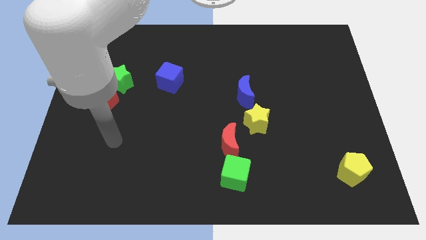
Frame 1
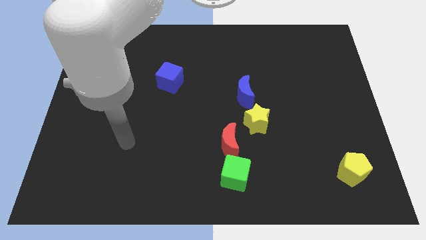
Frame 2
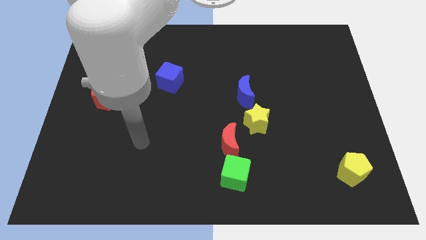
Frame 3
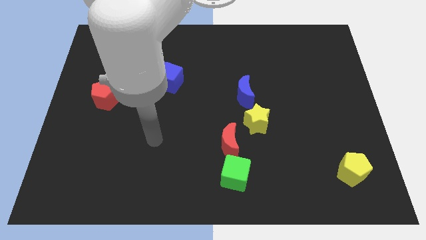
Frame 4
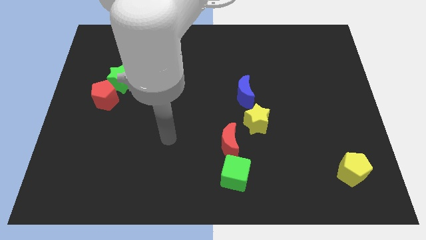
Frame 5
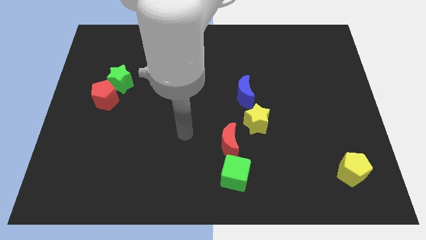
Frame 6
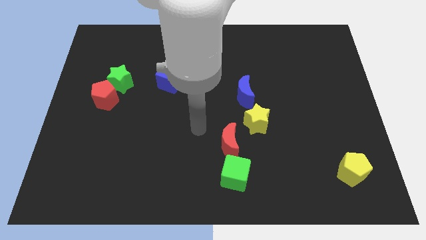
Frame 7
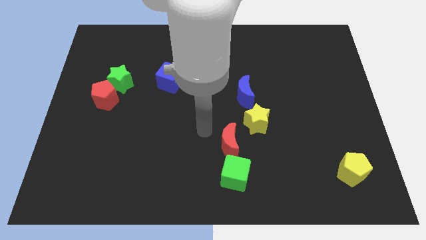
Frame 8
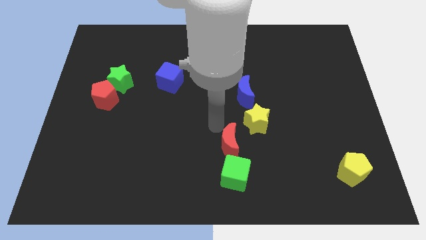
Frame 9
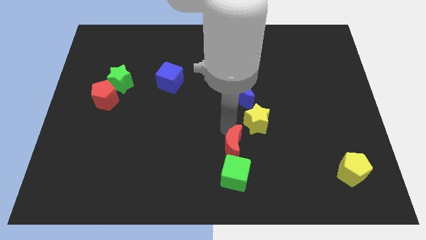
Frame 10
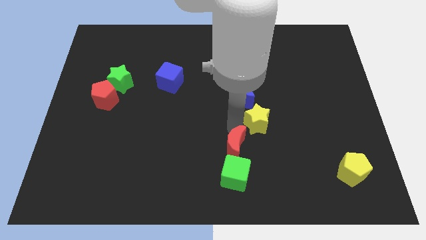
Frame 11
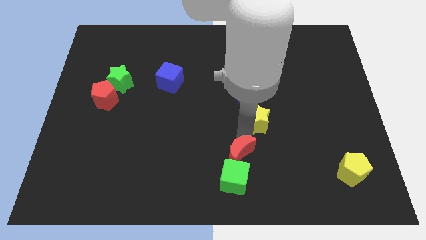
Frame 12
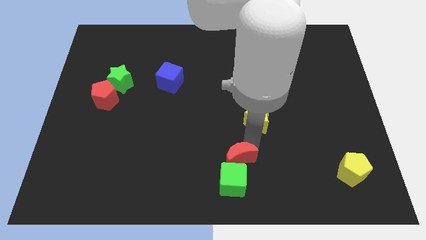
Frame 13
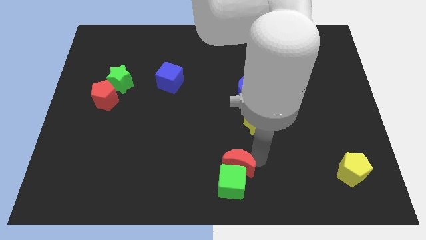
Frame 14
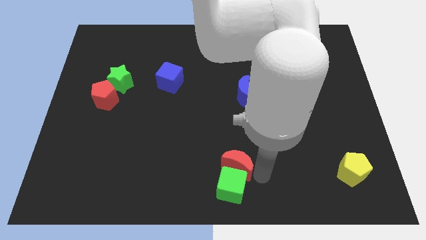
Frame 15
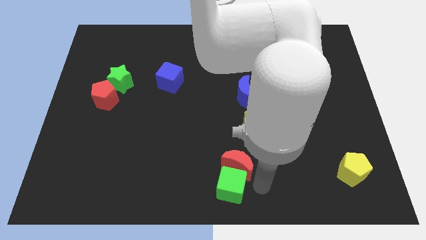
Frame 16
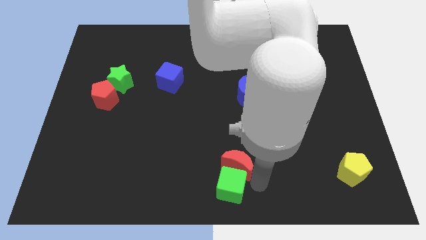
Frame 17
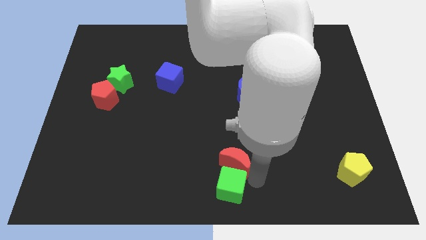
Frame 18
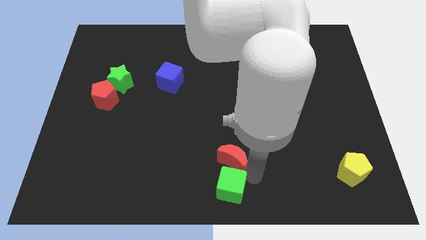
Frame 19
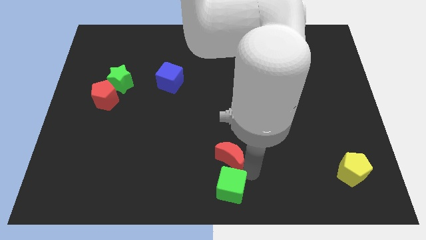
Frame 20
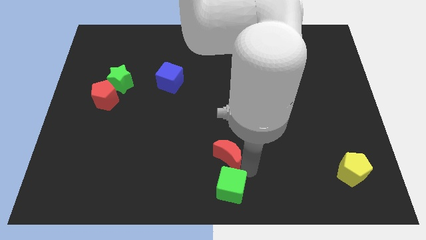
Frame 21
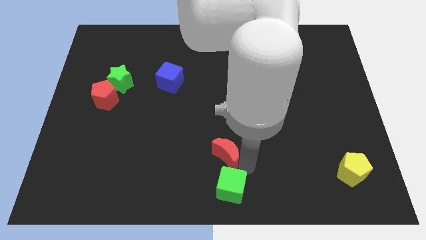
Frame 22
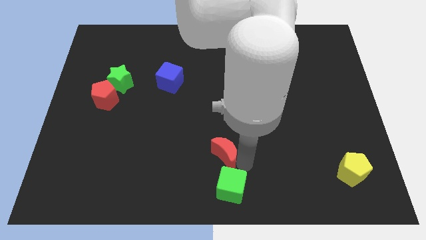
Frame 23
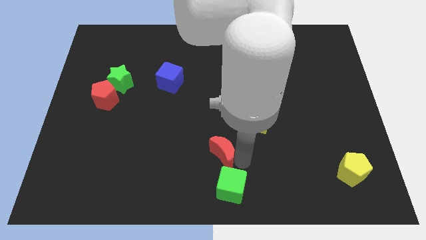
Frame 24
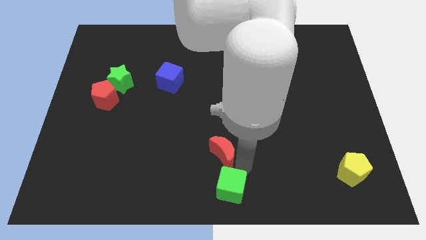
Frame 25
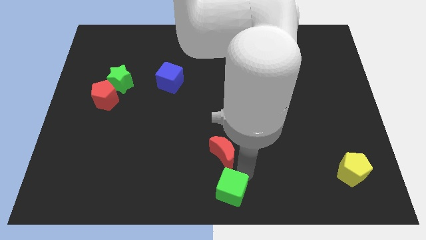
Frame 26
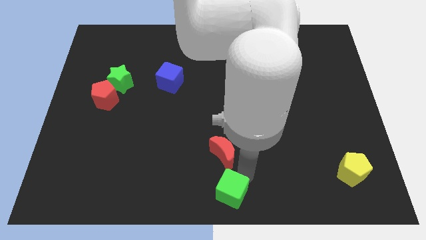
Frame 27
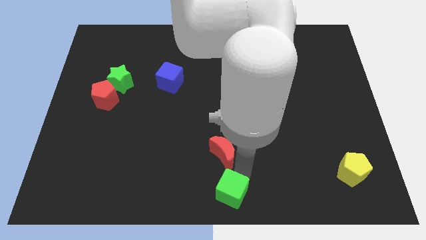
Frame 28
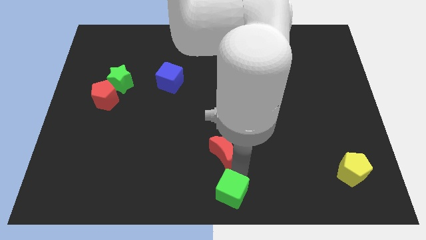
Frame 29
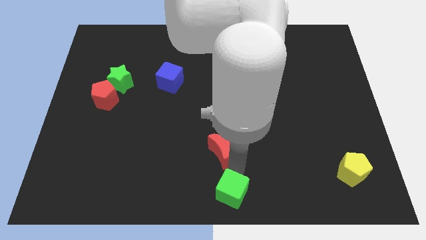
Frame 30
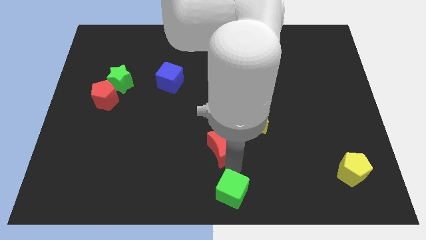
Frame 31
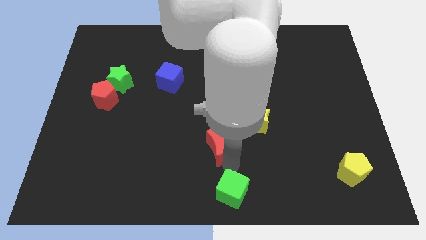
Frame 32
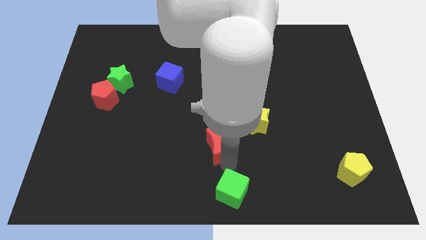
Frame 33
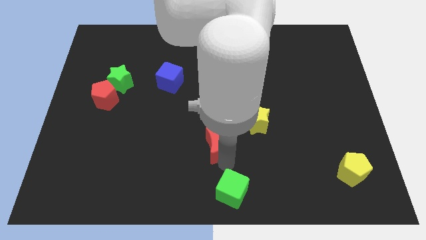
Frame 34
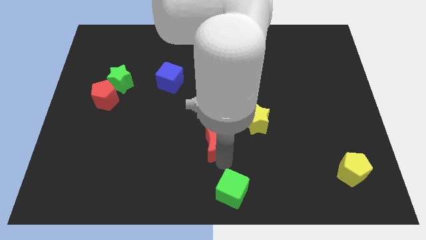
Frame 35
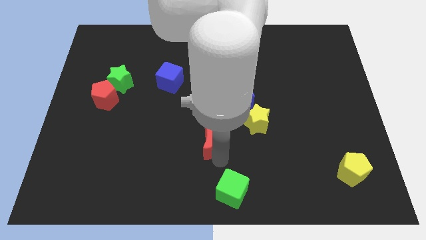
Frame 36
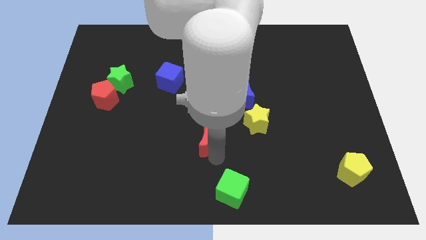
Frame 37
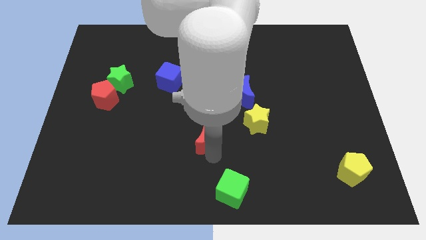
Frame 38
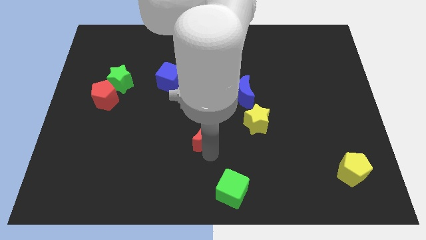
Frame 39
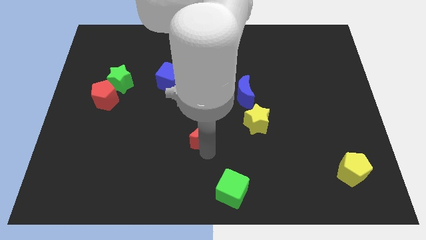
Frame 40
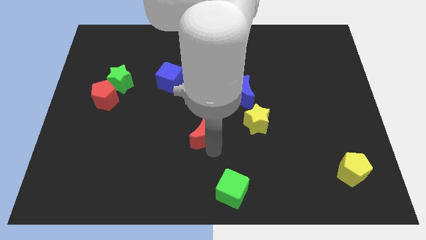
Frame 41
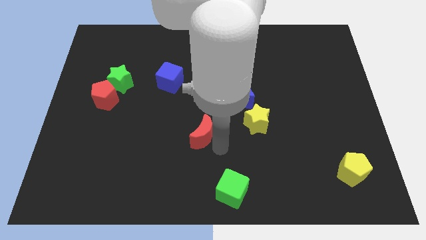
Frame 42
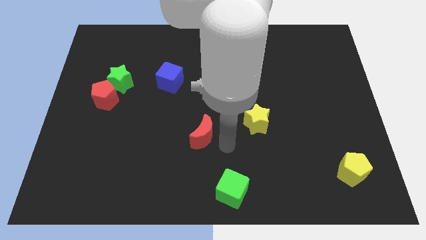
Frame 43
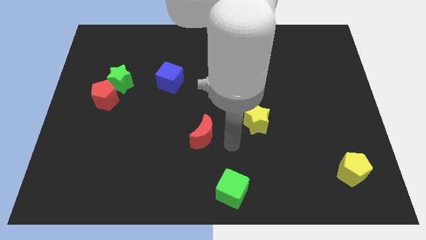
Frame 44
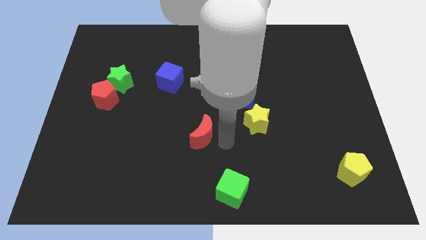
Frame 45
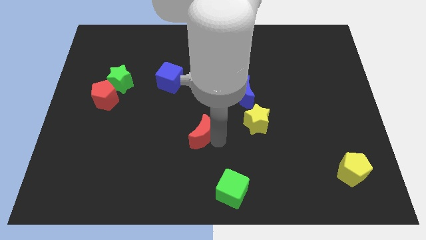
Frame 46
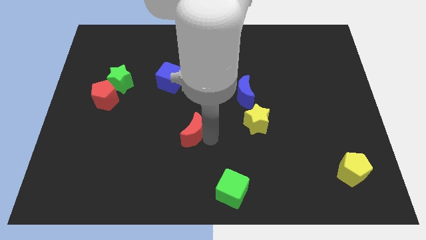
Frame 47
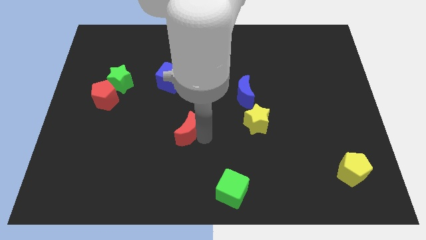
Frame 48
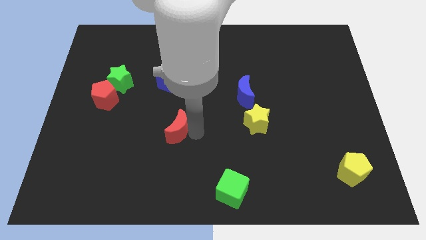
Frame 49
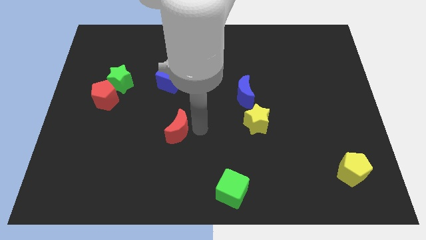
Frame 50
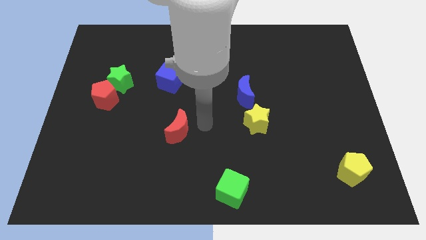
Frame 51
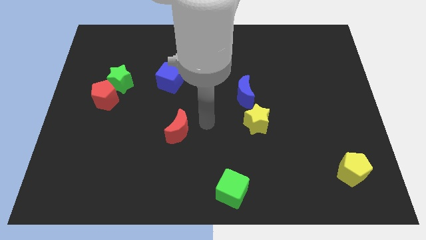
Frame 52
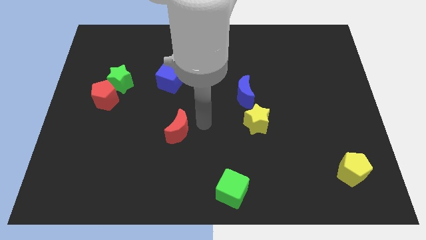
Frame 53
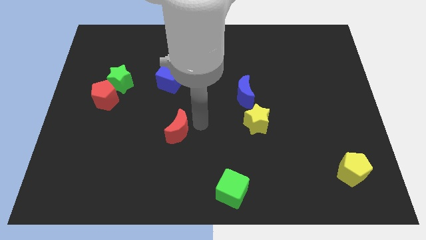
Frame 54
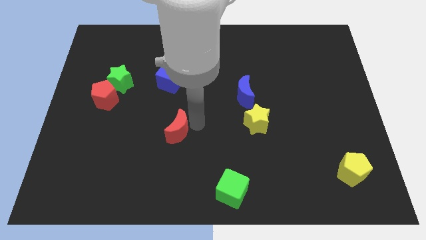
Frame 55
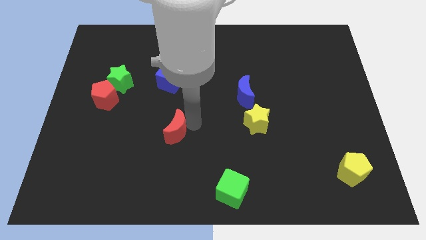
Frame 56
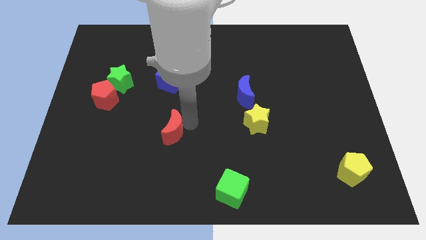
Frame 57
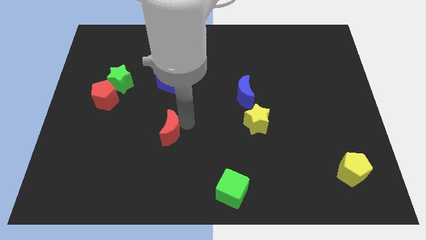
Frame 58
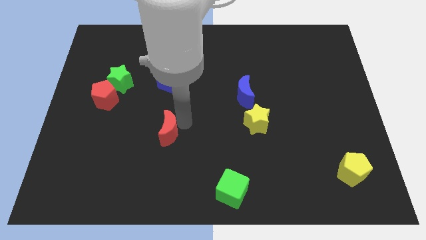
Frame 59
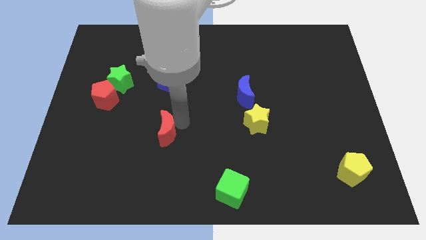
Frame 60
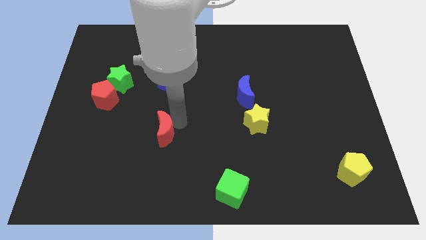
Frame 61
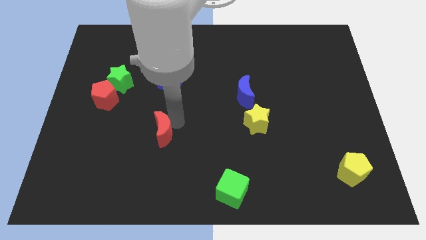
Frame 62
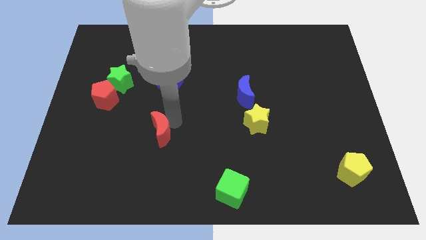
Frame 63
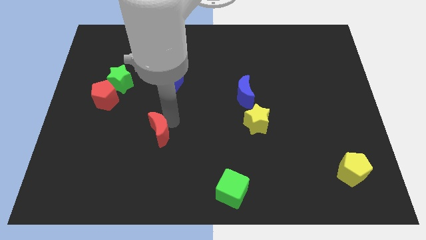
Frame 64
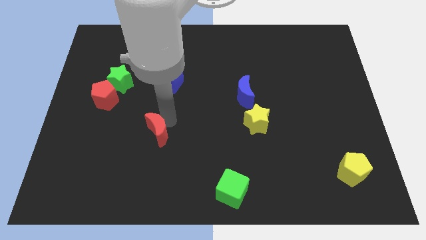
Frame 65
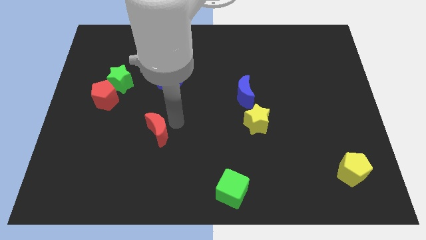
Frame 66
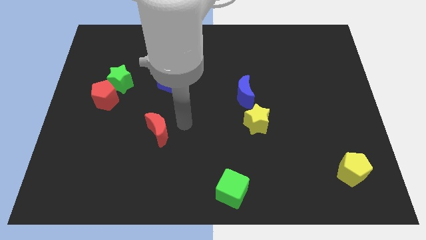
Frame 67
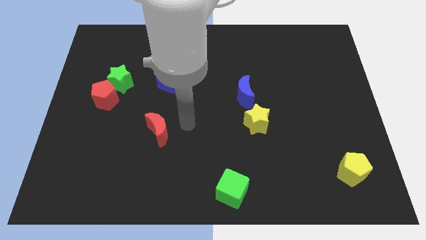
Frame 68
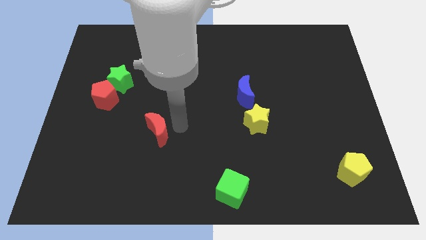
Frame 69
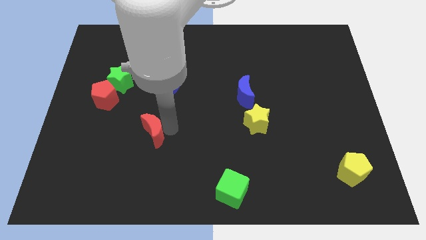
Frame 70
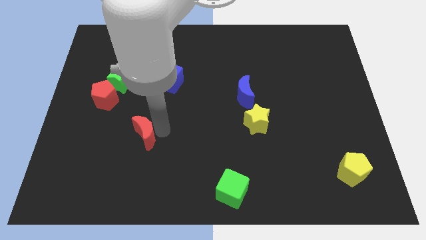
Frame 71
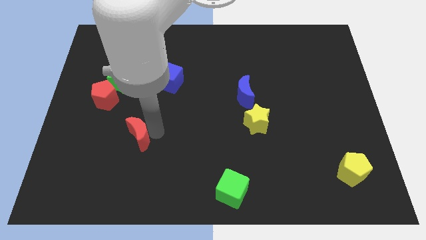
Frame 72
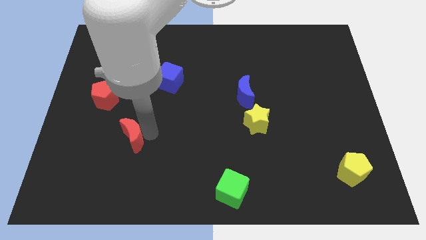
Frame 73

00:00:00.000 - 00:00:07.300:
slide the red moon to the left

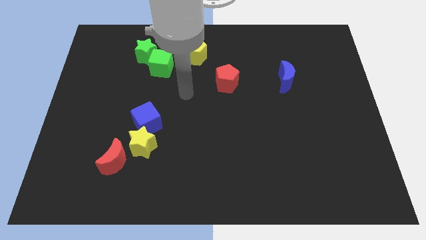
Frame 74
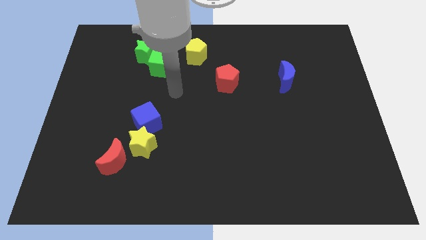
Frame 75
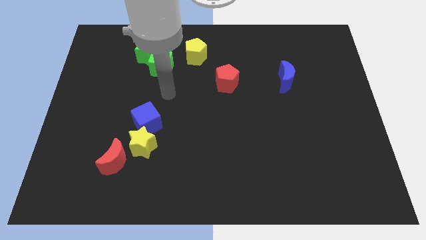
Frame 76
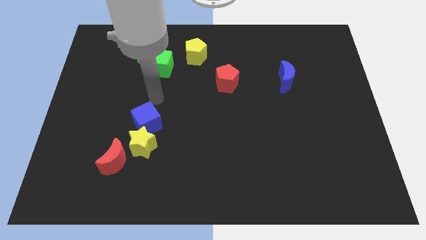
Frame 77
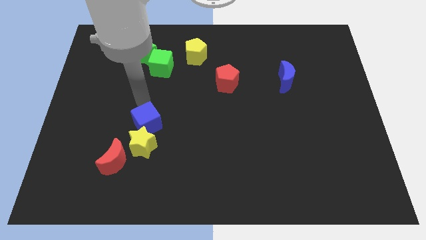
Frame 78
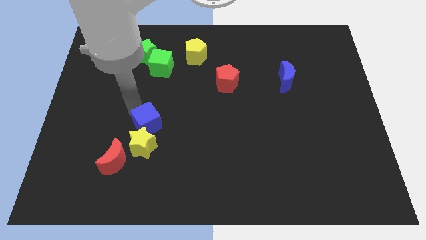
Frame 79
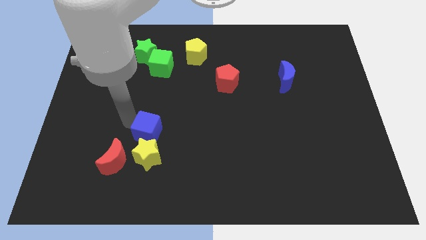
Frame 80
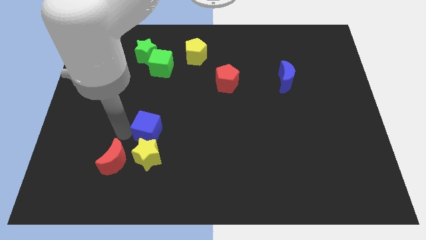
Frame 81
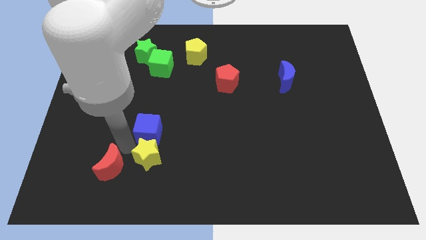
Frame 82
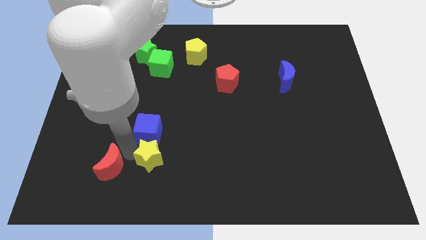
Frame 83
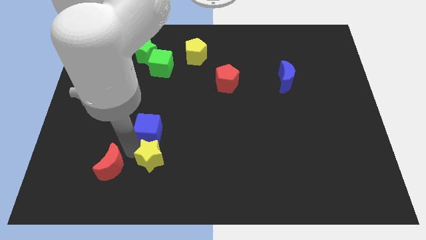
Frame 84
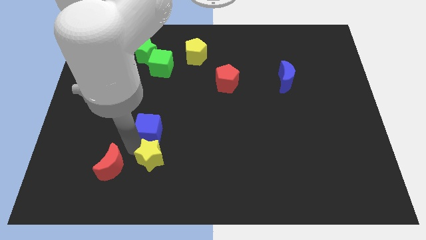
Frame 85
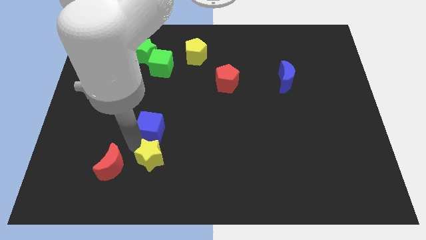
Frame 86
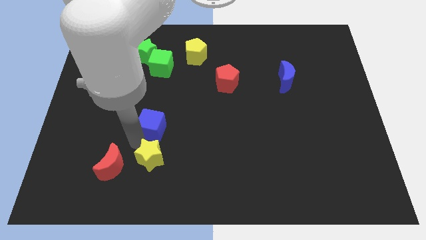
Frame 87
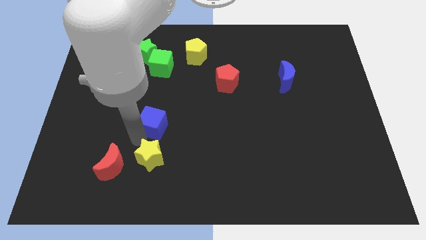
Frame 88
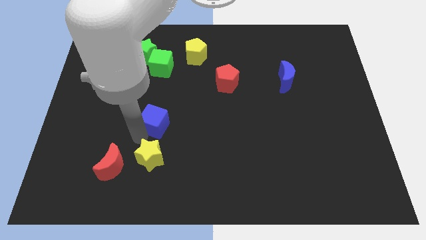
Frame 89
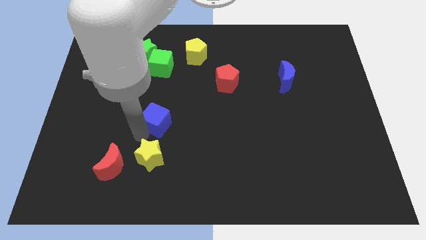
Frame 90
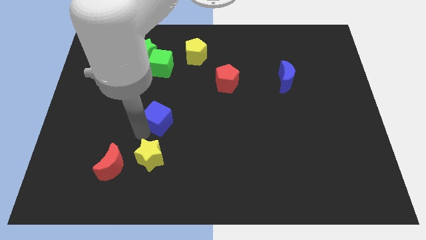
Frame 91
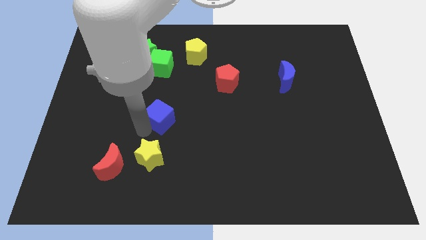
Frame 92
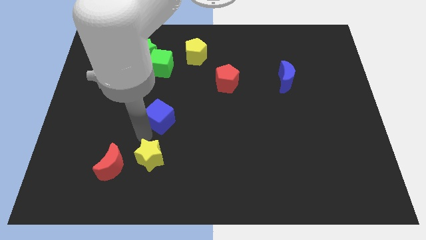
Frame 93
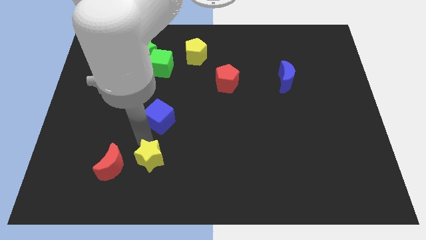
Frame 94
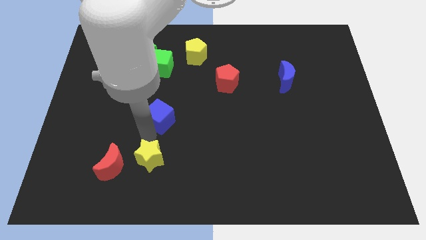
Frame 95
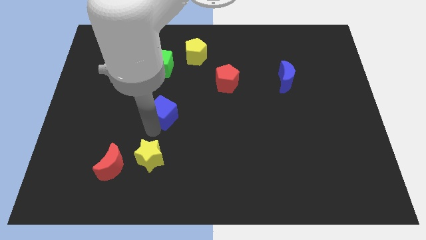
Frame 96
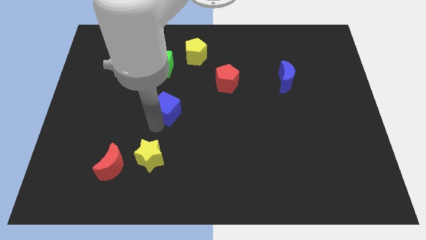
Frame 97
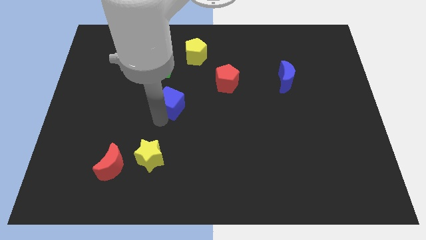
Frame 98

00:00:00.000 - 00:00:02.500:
slide the blue cube up and right diagonally slightly
